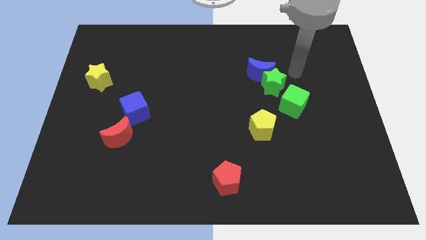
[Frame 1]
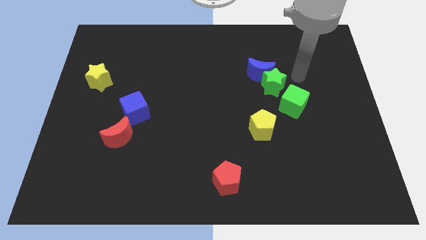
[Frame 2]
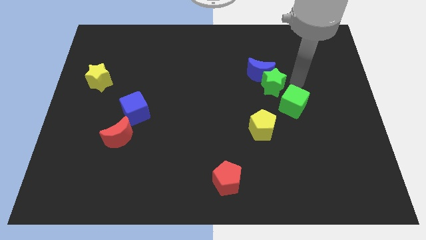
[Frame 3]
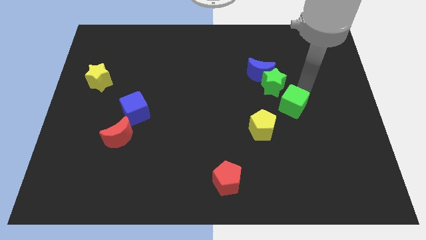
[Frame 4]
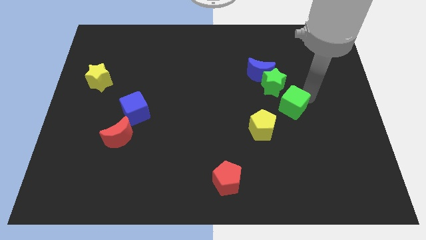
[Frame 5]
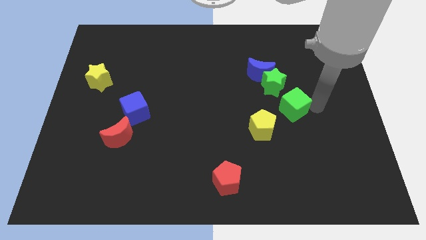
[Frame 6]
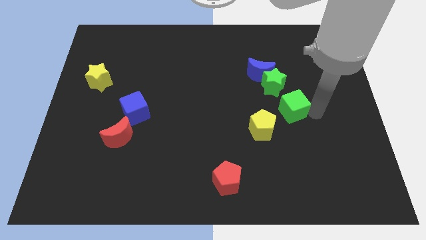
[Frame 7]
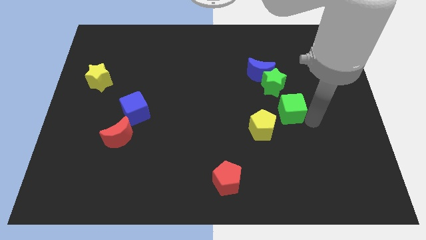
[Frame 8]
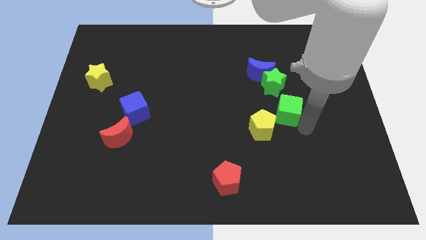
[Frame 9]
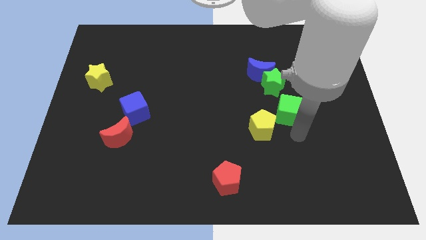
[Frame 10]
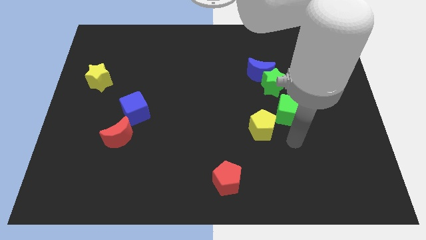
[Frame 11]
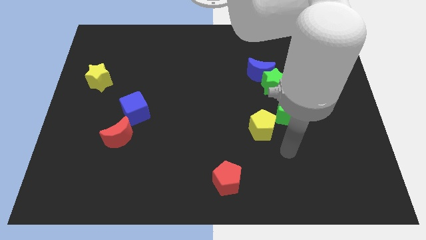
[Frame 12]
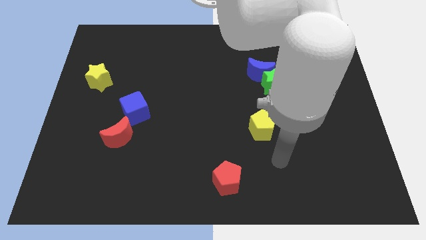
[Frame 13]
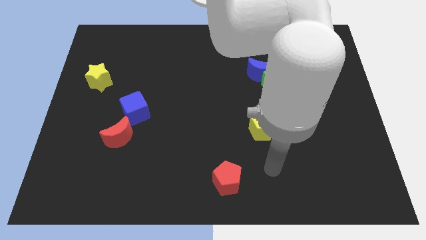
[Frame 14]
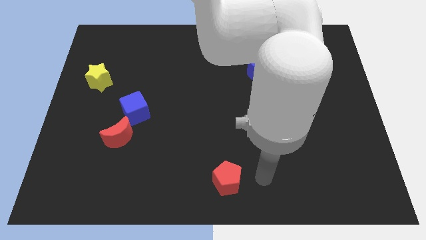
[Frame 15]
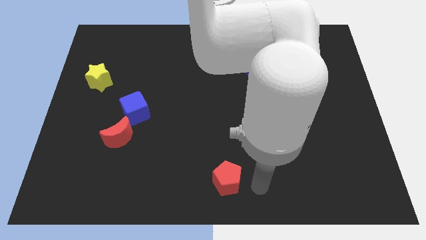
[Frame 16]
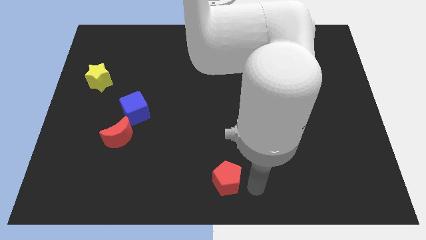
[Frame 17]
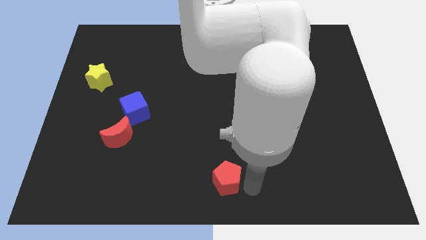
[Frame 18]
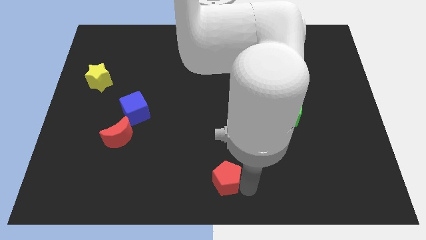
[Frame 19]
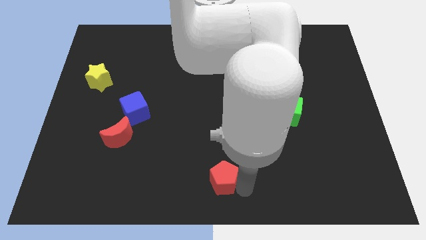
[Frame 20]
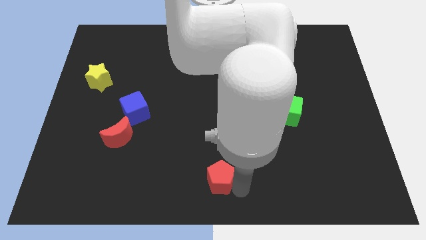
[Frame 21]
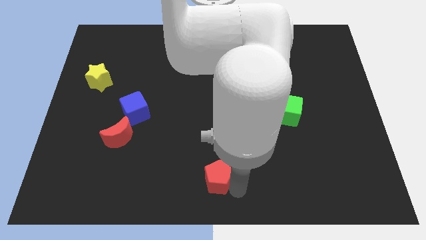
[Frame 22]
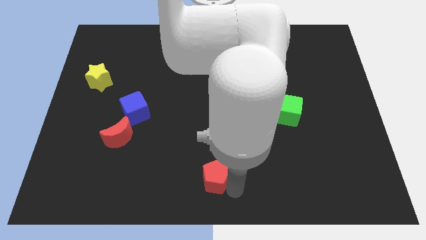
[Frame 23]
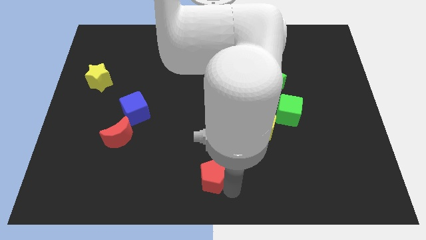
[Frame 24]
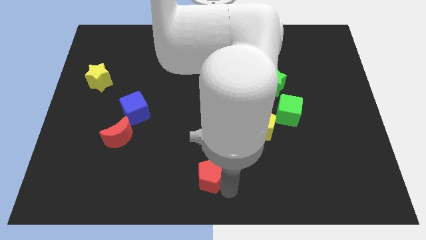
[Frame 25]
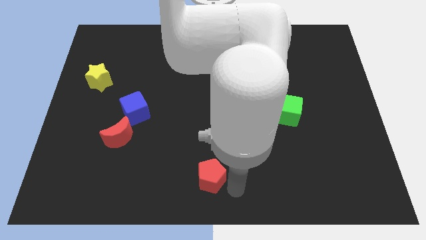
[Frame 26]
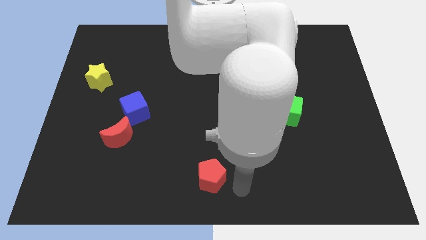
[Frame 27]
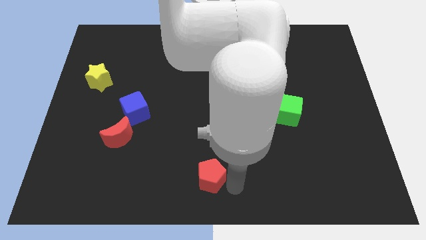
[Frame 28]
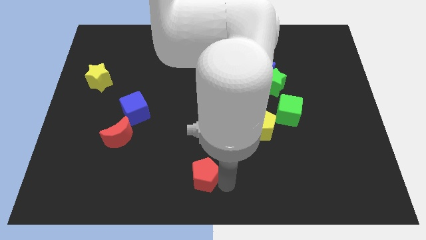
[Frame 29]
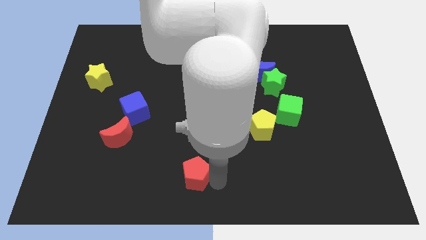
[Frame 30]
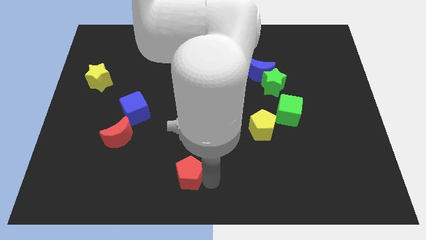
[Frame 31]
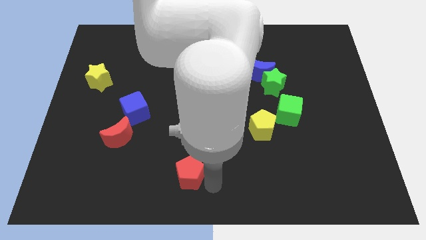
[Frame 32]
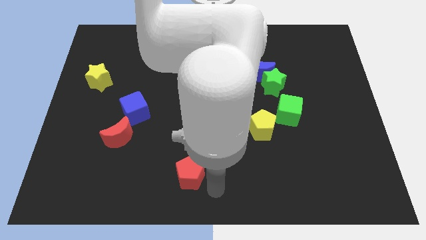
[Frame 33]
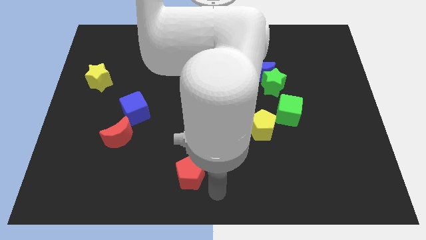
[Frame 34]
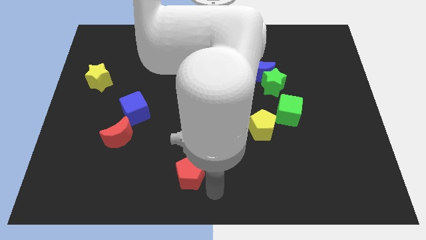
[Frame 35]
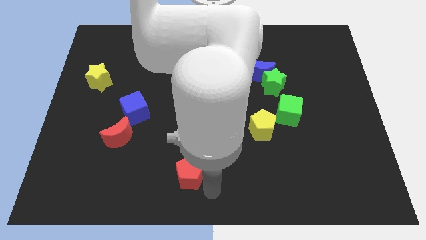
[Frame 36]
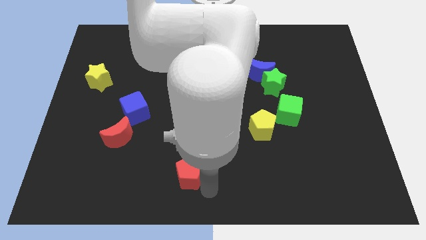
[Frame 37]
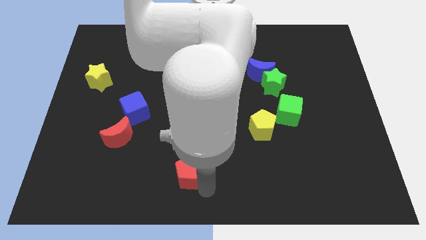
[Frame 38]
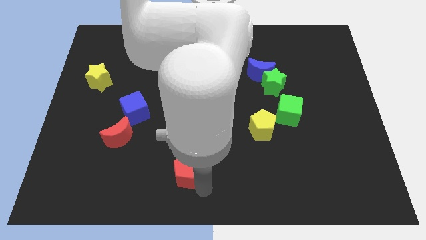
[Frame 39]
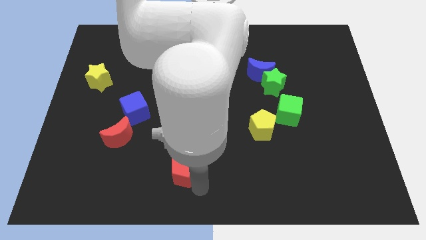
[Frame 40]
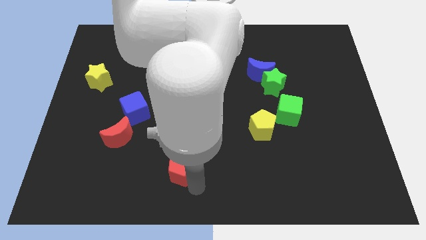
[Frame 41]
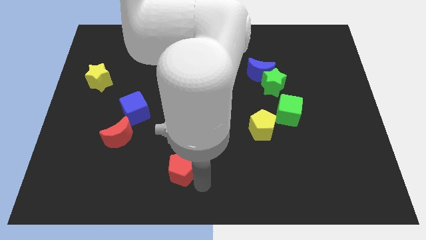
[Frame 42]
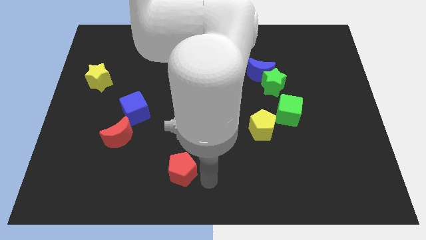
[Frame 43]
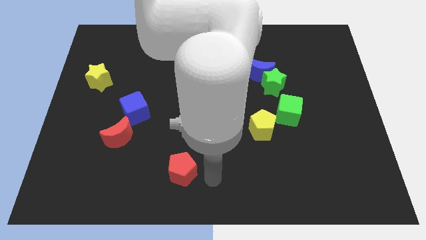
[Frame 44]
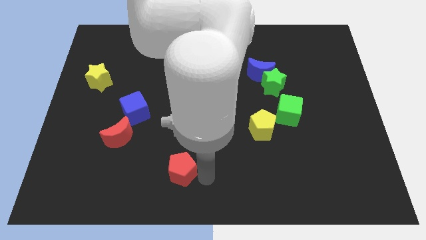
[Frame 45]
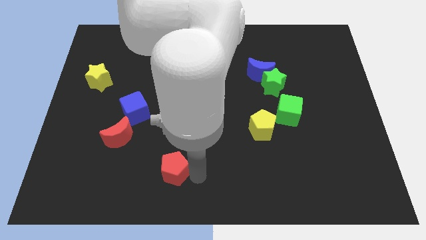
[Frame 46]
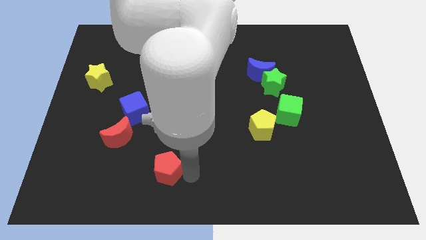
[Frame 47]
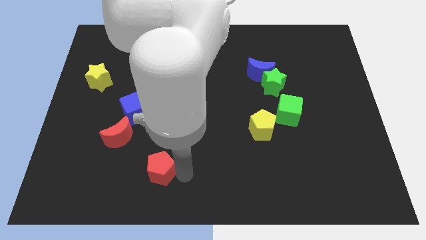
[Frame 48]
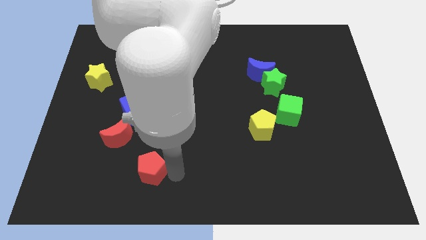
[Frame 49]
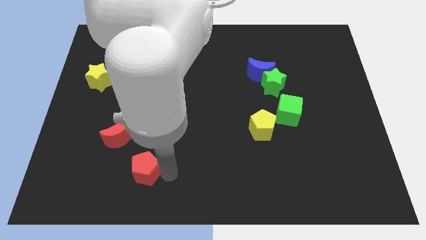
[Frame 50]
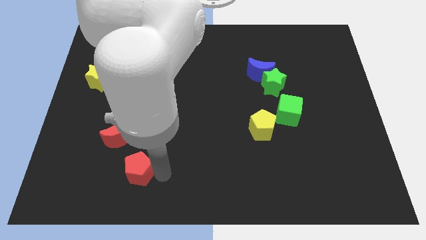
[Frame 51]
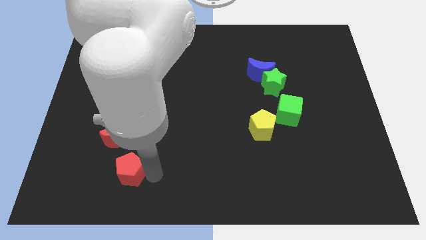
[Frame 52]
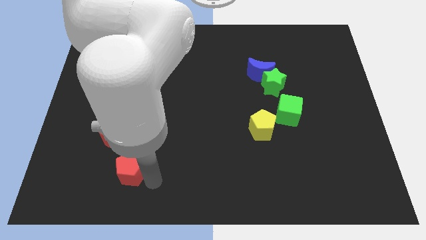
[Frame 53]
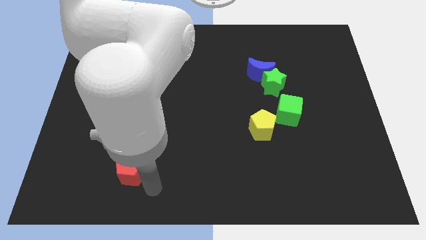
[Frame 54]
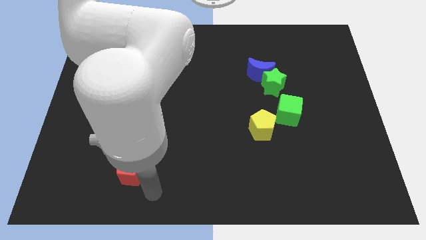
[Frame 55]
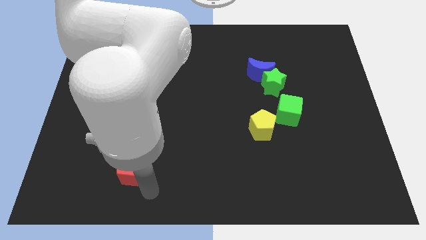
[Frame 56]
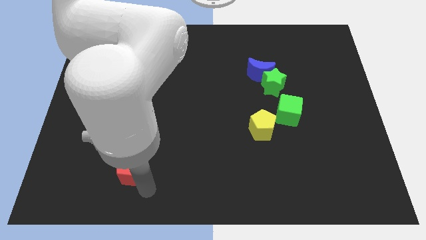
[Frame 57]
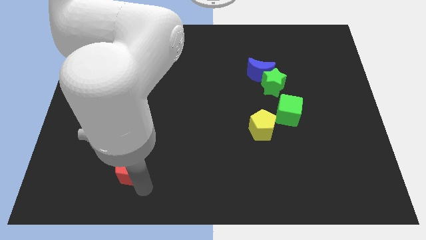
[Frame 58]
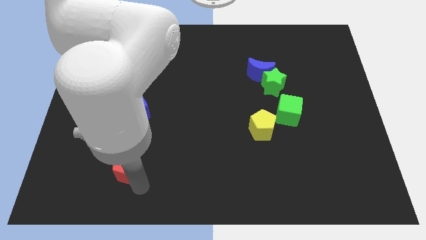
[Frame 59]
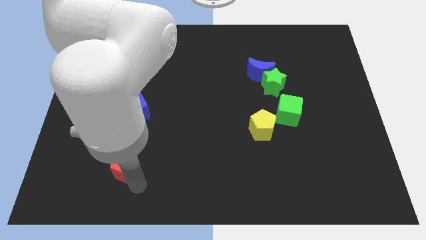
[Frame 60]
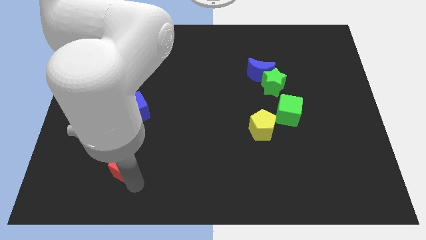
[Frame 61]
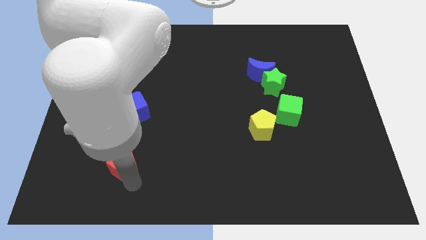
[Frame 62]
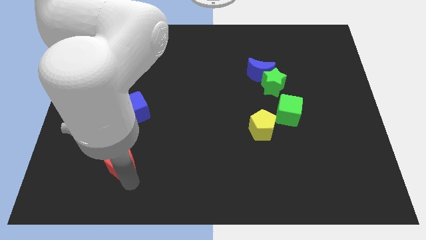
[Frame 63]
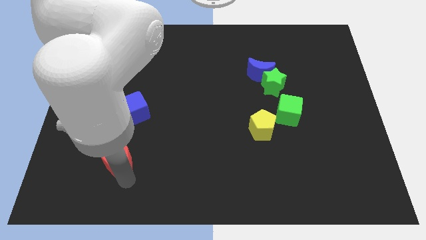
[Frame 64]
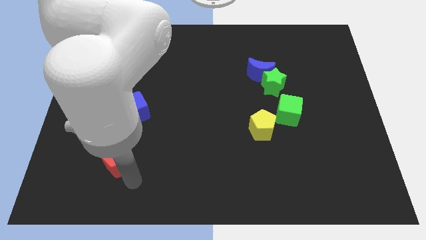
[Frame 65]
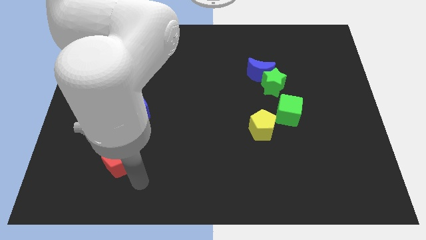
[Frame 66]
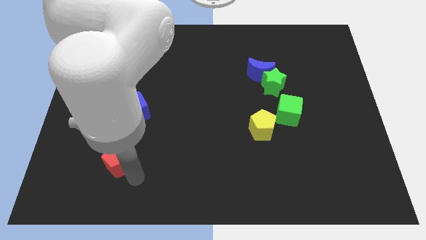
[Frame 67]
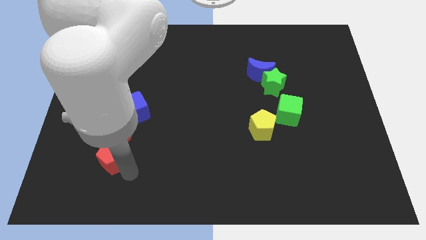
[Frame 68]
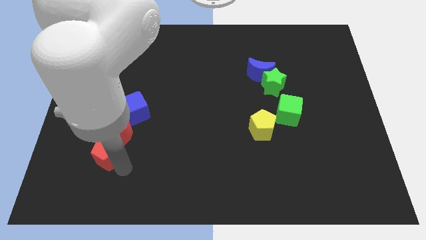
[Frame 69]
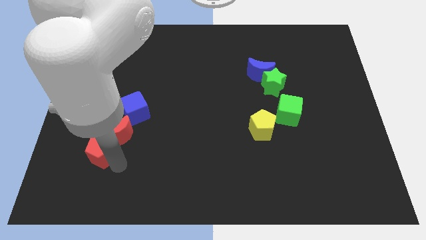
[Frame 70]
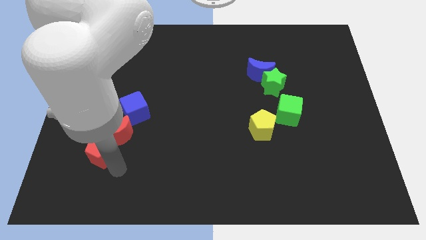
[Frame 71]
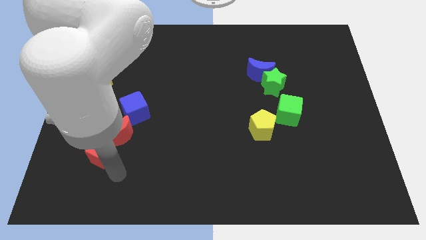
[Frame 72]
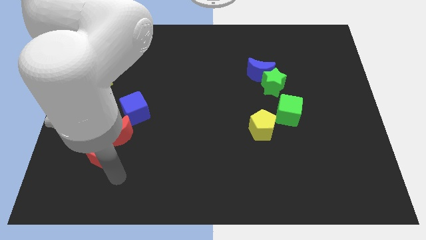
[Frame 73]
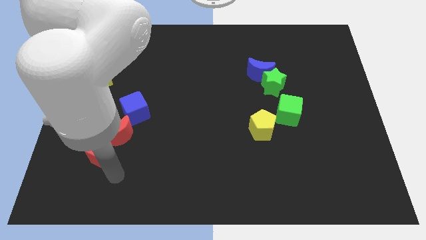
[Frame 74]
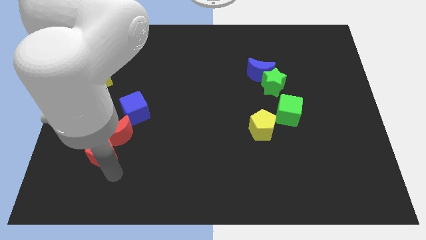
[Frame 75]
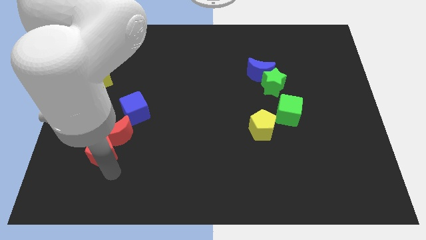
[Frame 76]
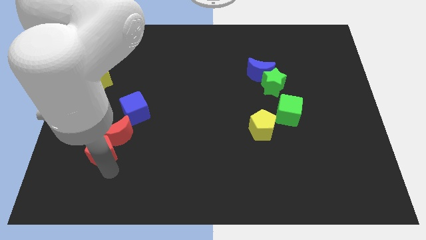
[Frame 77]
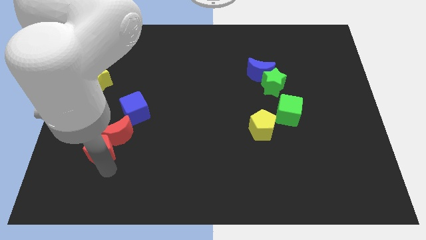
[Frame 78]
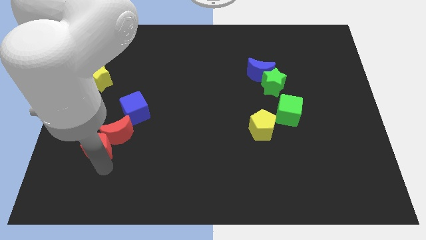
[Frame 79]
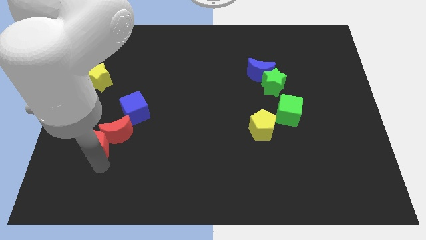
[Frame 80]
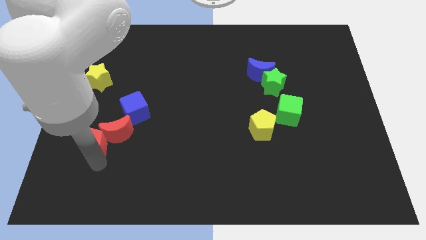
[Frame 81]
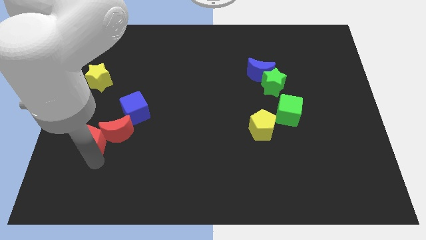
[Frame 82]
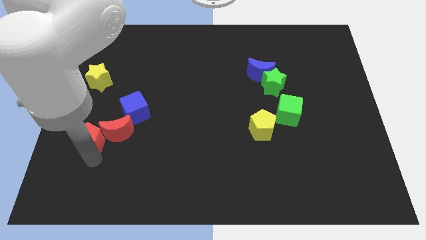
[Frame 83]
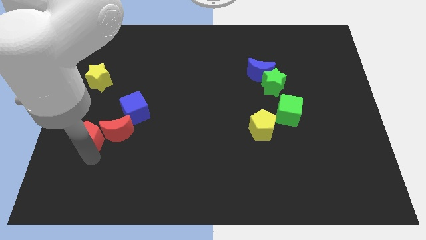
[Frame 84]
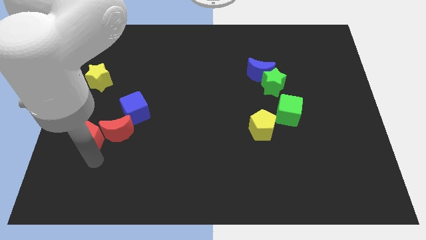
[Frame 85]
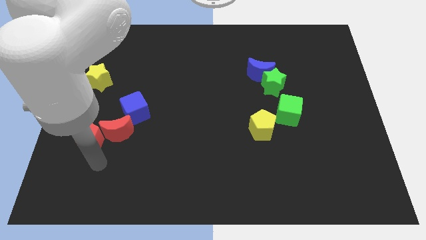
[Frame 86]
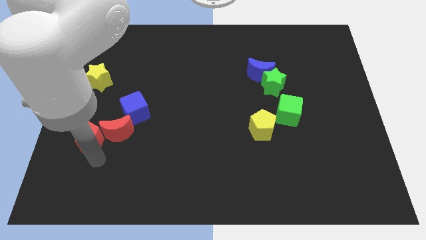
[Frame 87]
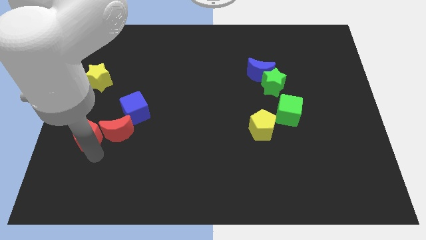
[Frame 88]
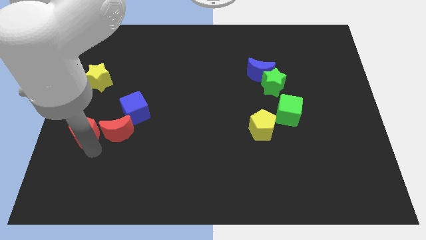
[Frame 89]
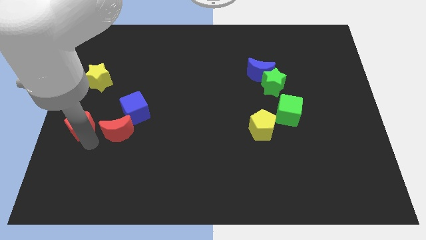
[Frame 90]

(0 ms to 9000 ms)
slide the red pentagon to the left side of the board
